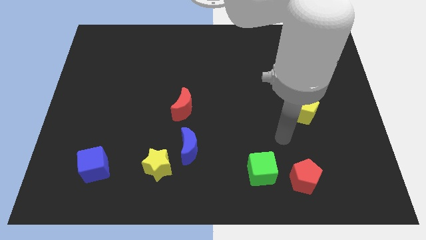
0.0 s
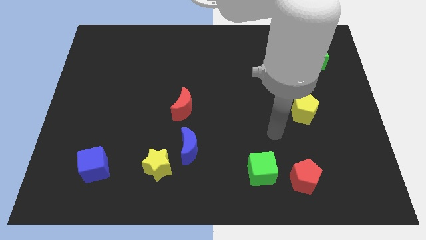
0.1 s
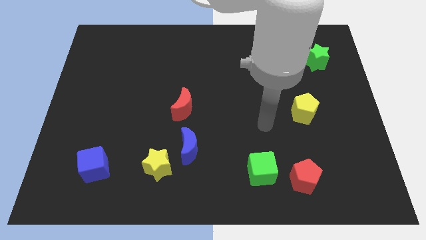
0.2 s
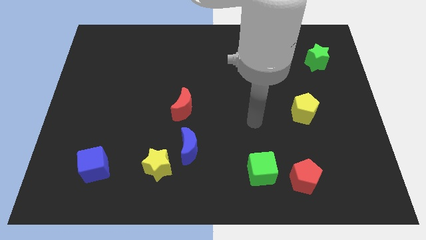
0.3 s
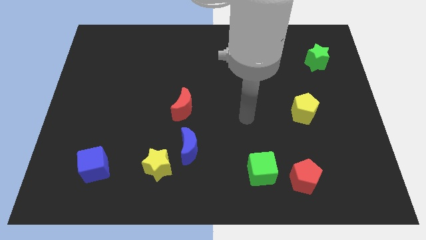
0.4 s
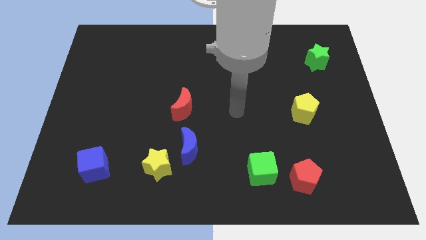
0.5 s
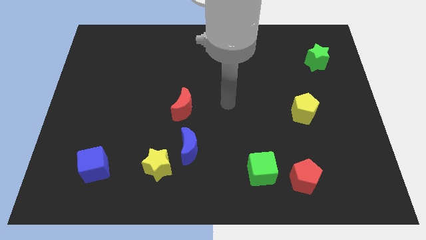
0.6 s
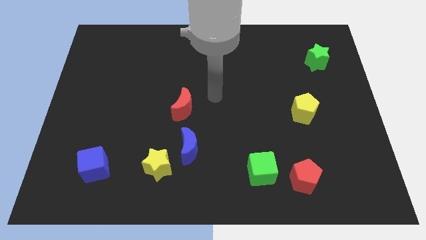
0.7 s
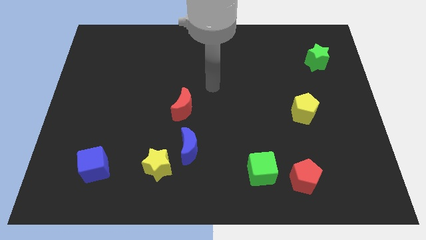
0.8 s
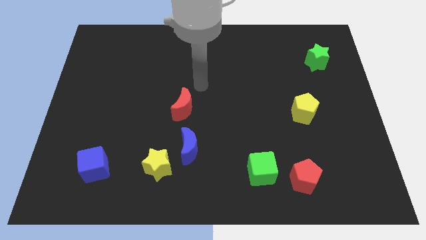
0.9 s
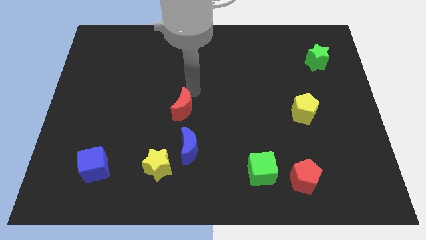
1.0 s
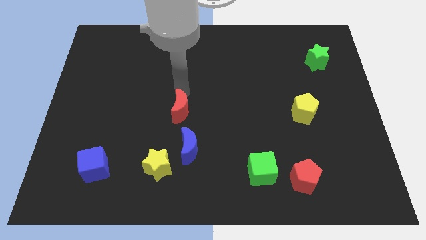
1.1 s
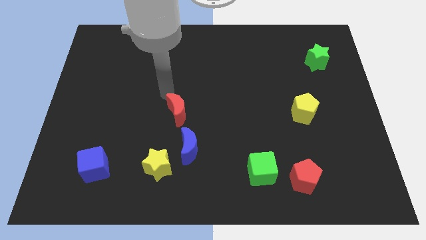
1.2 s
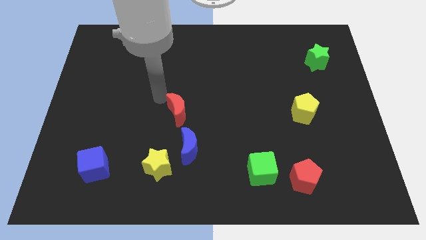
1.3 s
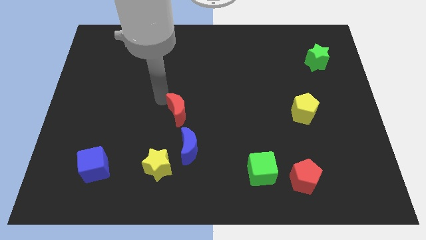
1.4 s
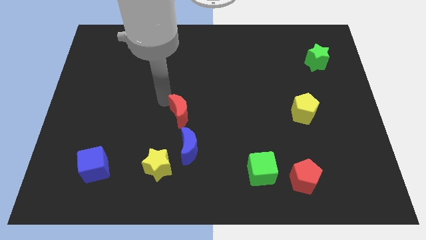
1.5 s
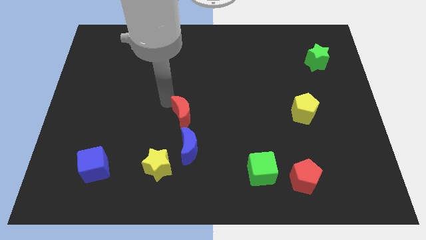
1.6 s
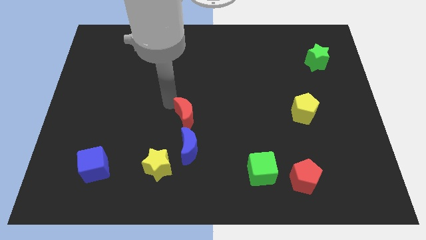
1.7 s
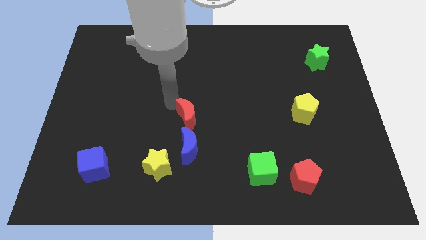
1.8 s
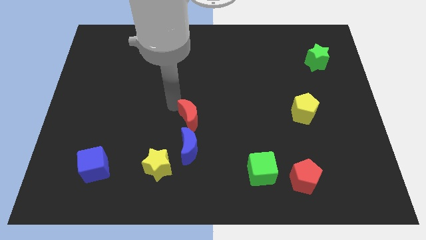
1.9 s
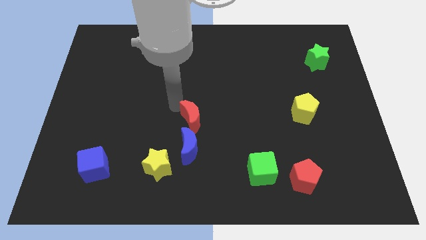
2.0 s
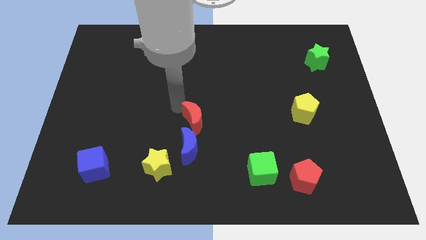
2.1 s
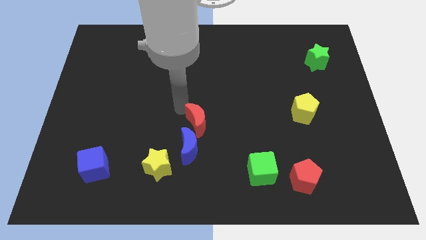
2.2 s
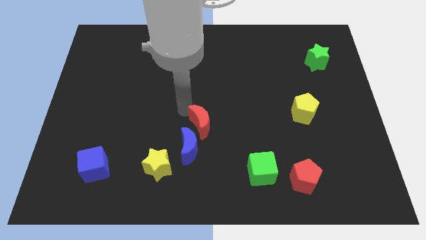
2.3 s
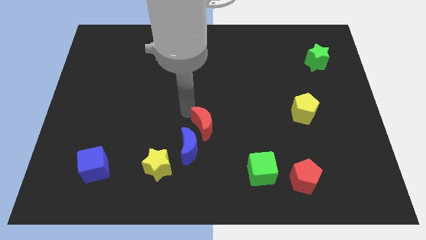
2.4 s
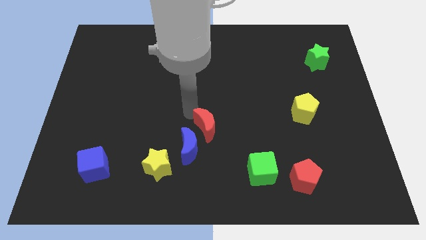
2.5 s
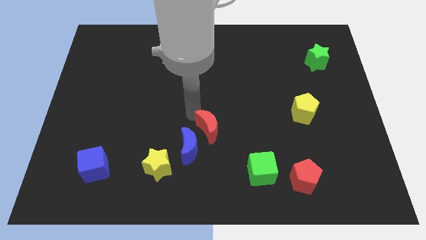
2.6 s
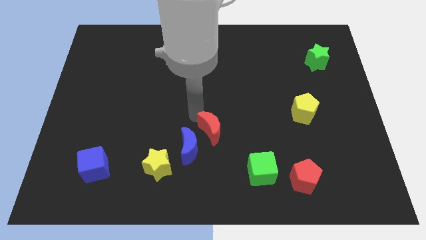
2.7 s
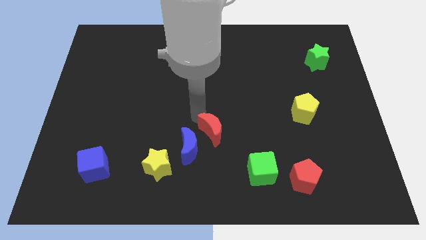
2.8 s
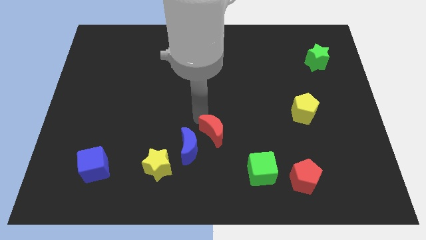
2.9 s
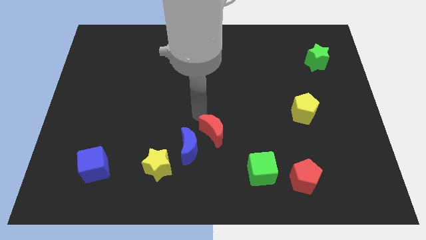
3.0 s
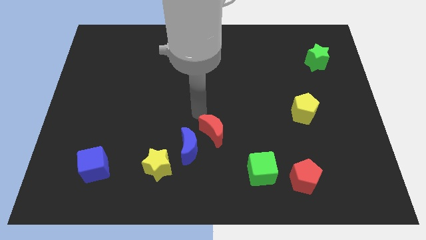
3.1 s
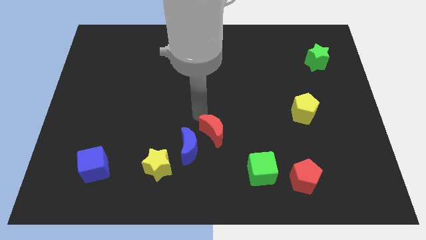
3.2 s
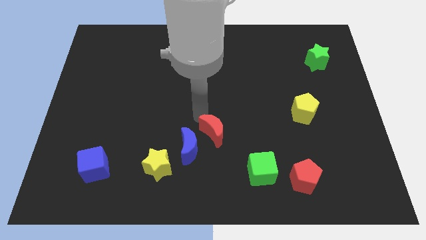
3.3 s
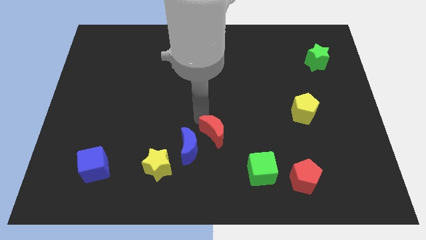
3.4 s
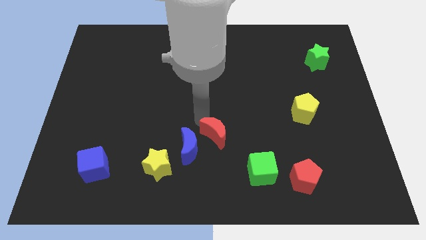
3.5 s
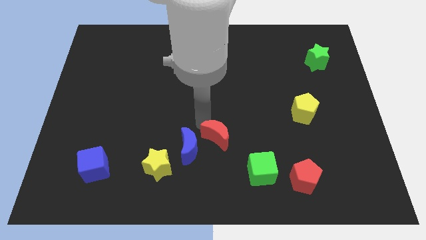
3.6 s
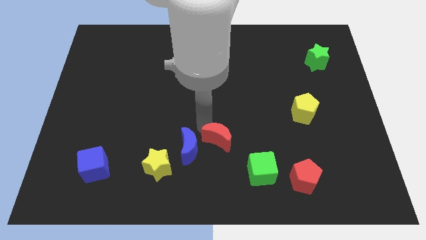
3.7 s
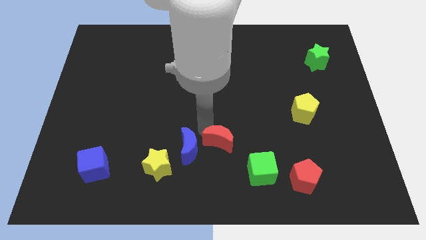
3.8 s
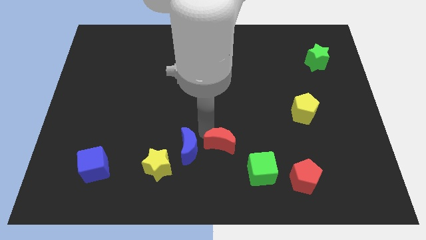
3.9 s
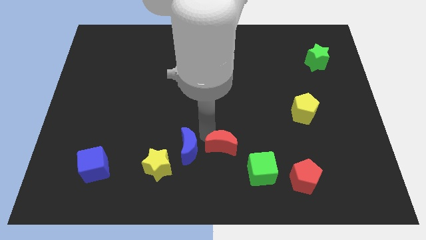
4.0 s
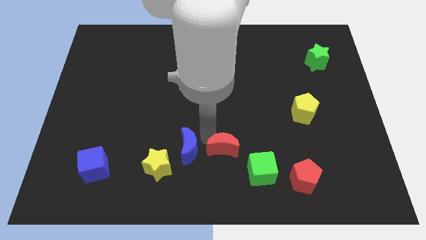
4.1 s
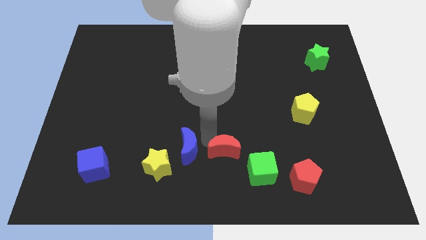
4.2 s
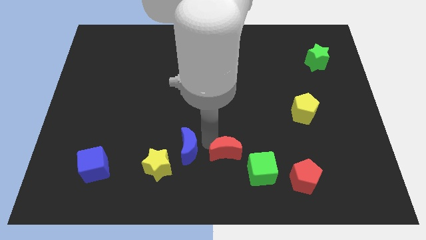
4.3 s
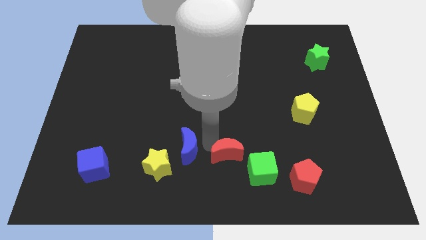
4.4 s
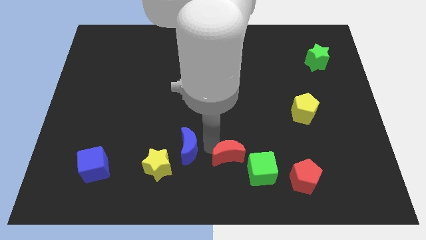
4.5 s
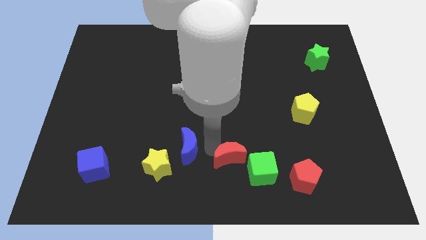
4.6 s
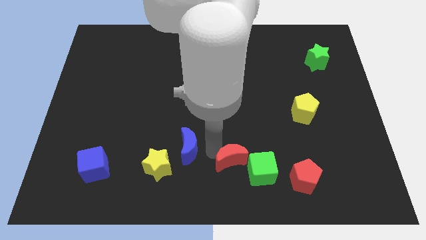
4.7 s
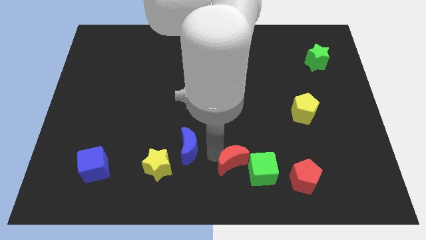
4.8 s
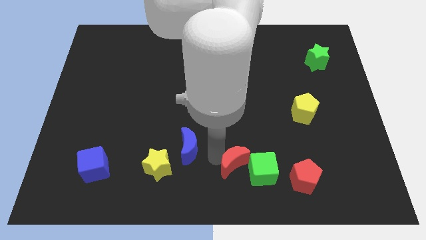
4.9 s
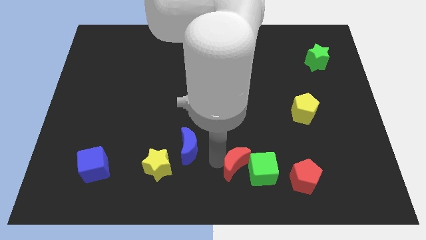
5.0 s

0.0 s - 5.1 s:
slide the red moon towards the green cube

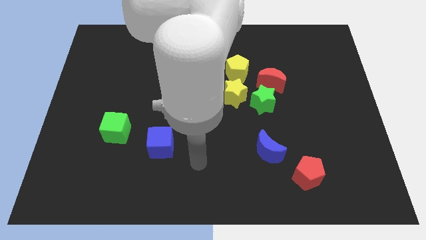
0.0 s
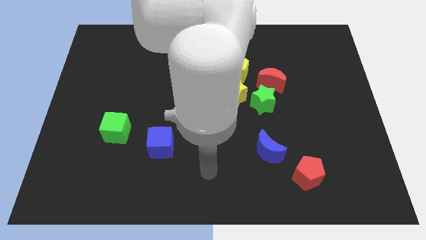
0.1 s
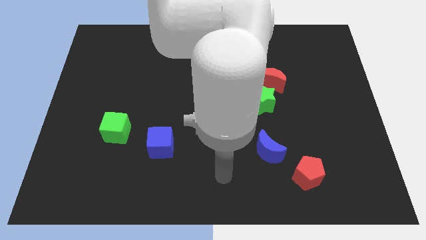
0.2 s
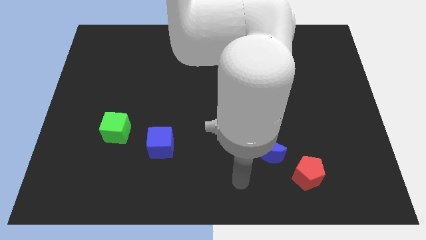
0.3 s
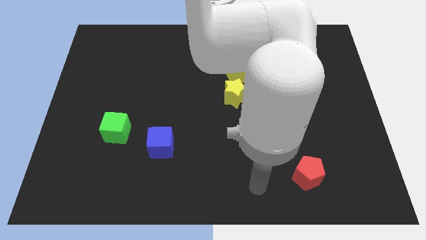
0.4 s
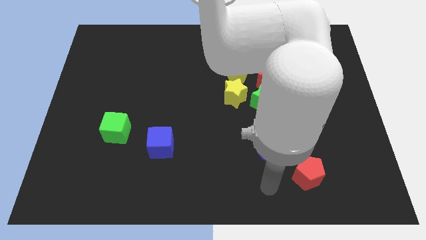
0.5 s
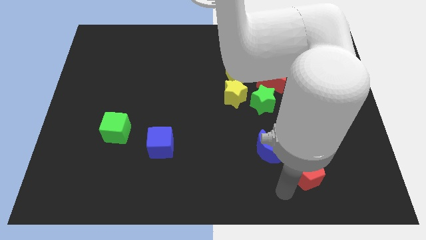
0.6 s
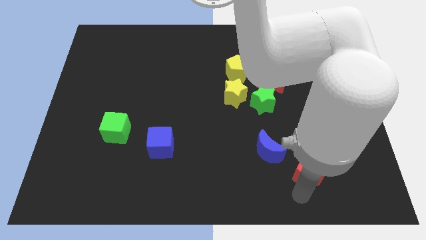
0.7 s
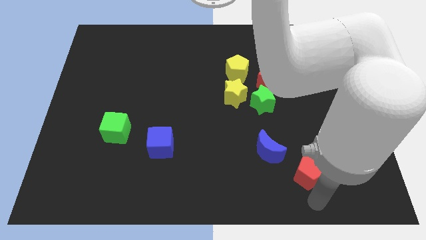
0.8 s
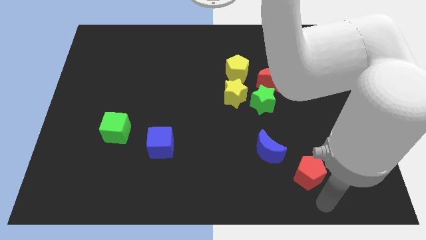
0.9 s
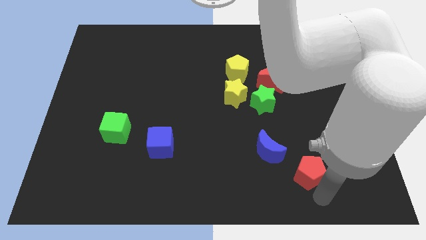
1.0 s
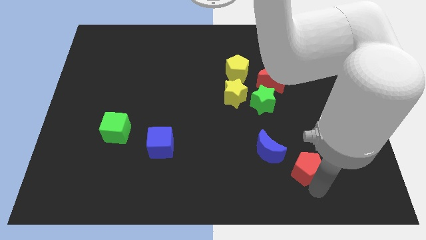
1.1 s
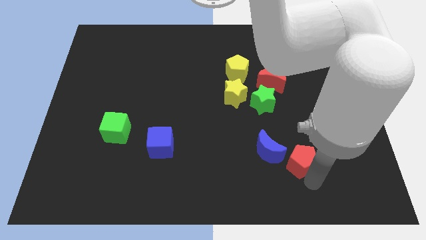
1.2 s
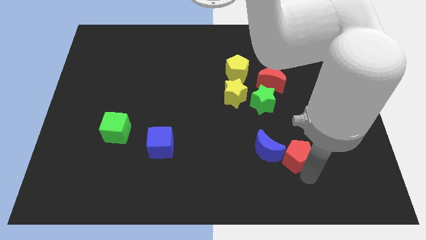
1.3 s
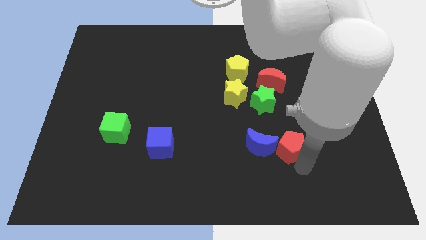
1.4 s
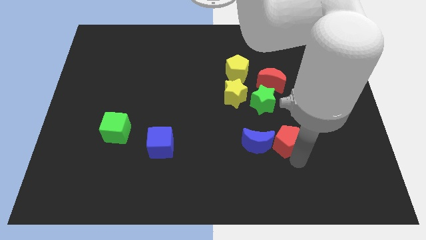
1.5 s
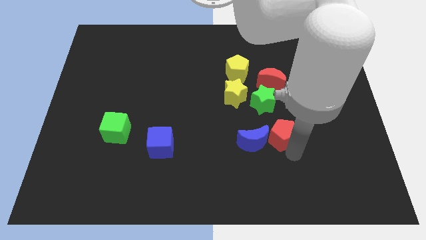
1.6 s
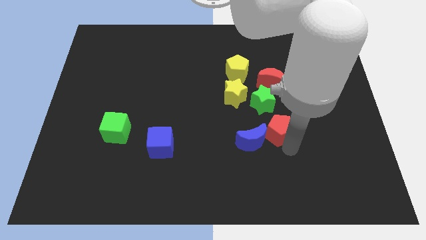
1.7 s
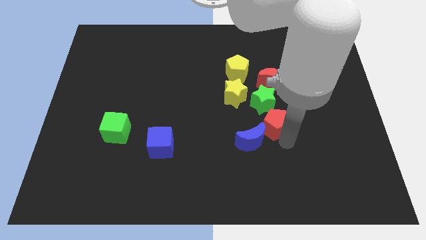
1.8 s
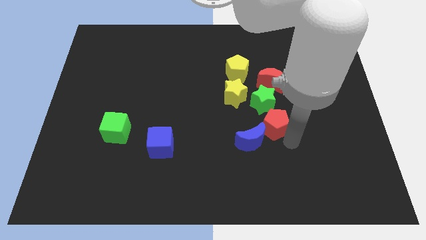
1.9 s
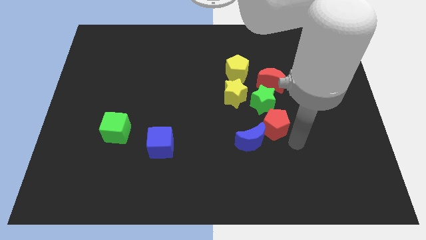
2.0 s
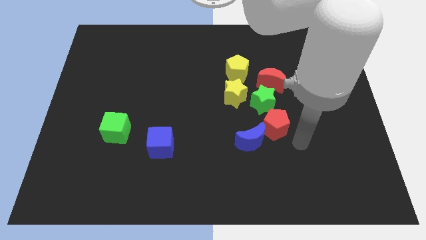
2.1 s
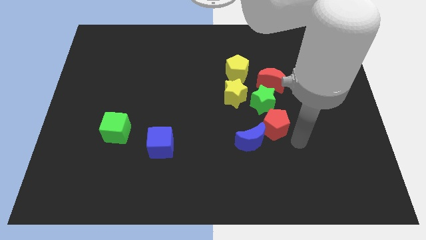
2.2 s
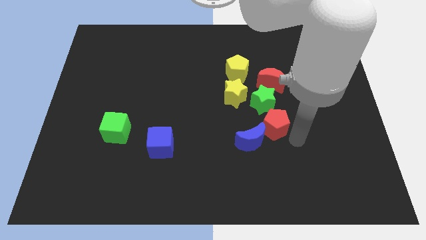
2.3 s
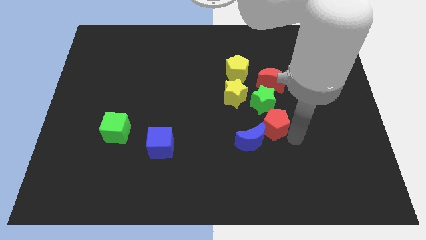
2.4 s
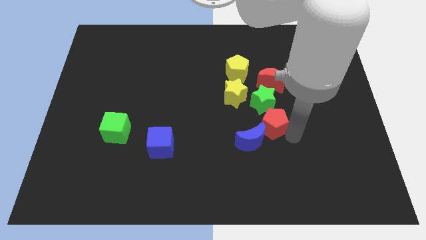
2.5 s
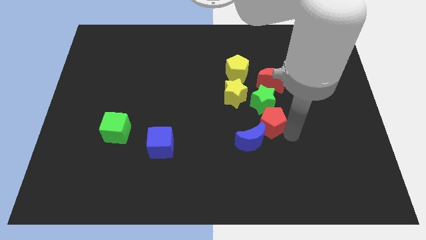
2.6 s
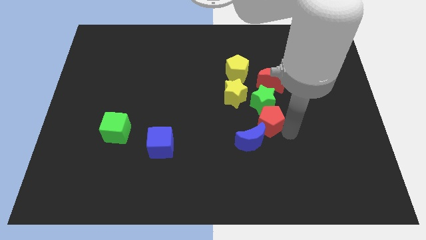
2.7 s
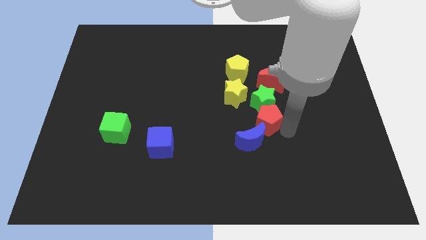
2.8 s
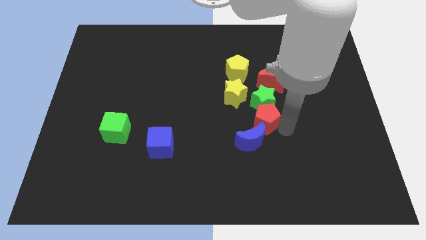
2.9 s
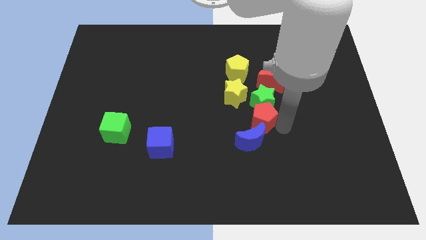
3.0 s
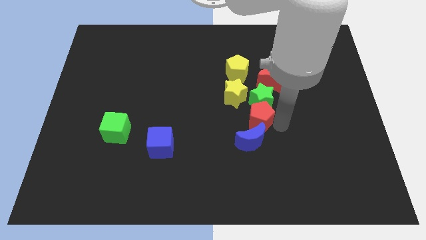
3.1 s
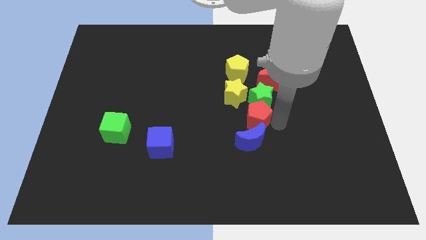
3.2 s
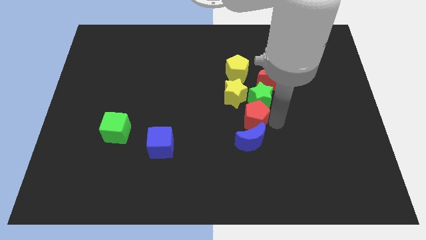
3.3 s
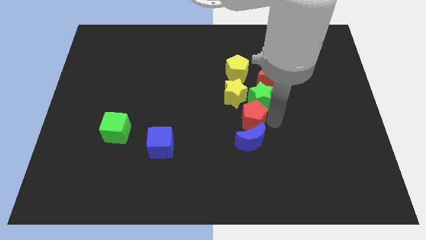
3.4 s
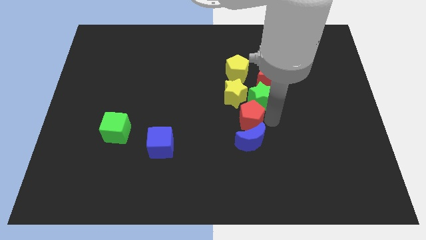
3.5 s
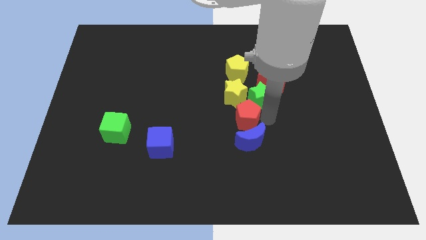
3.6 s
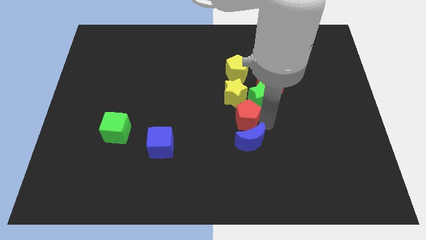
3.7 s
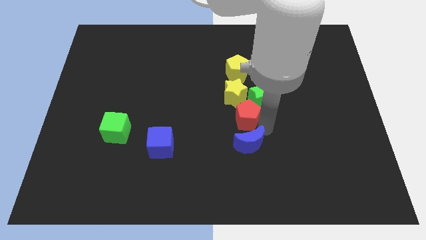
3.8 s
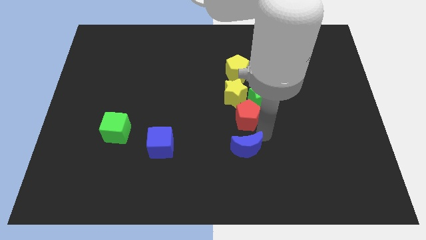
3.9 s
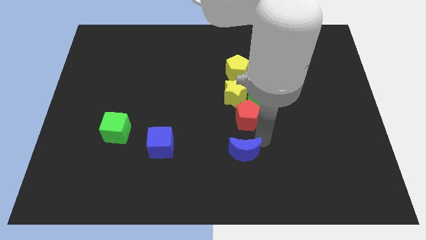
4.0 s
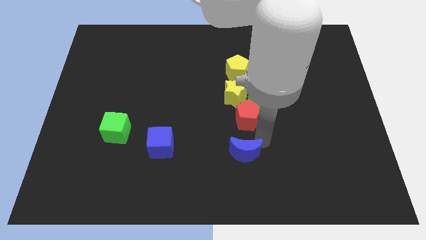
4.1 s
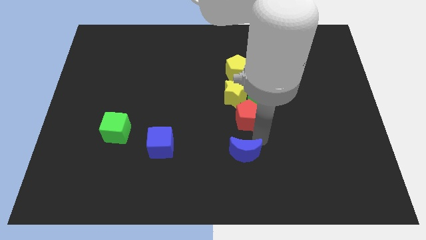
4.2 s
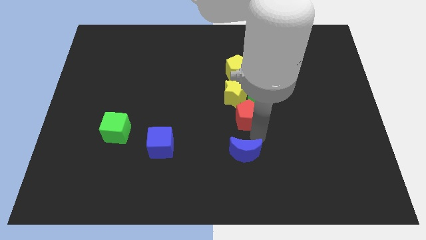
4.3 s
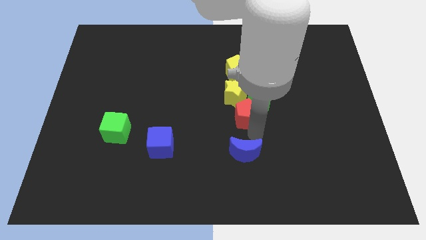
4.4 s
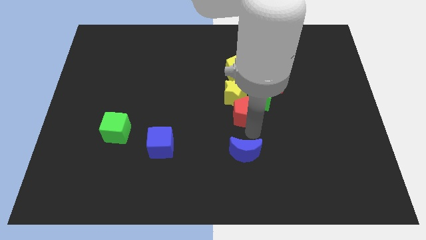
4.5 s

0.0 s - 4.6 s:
put the red pentagon to the yellow star
